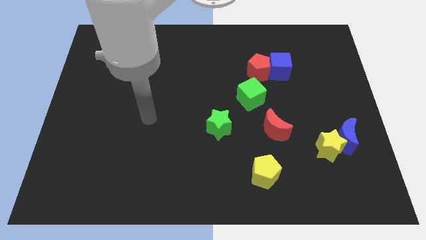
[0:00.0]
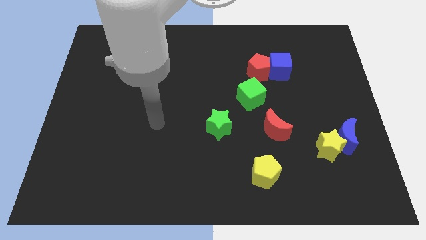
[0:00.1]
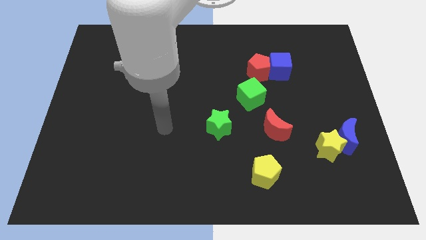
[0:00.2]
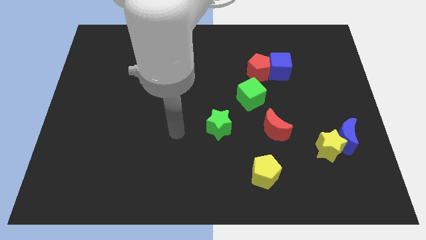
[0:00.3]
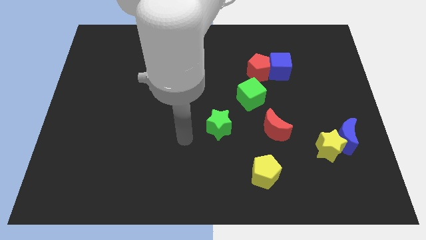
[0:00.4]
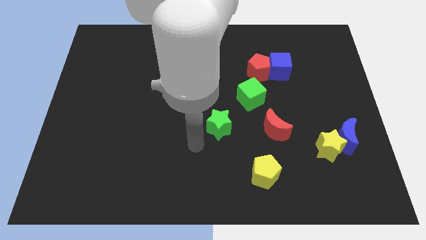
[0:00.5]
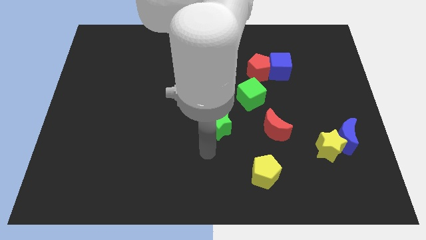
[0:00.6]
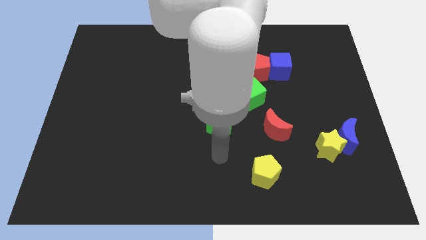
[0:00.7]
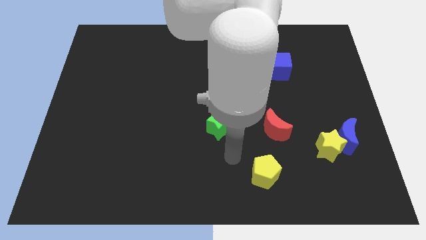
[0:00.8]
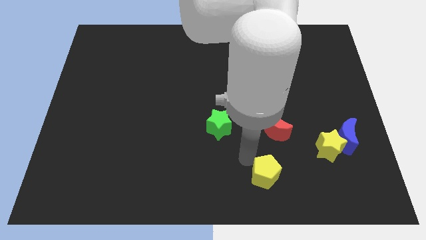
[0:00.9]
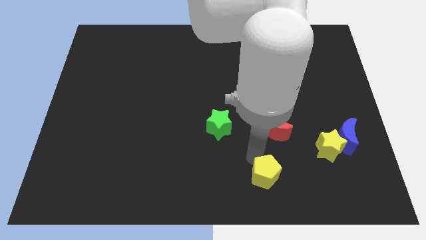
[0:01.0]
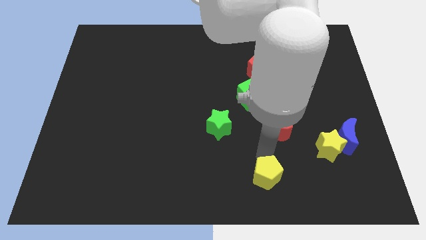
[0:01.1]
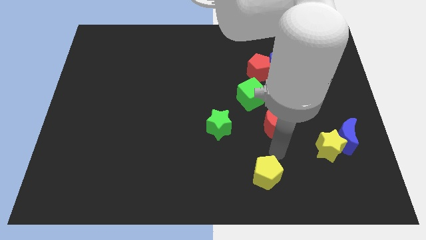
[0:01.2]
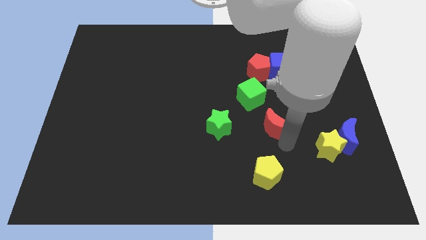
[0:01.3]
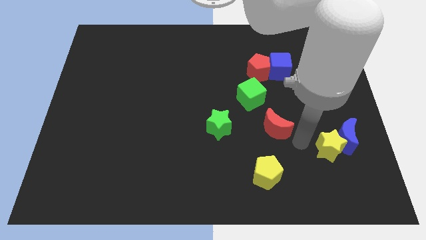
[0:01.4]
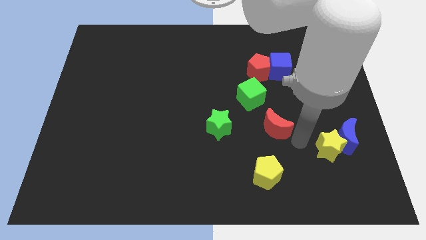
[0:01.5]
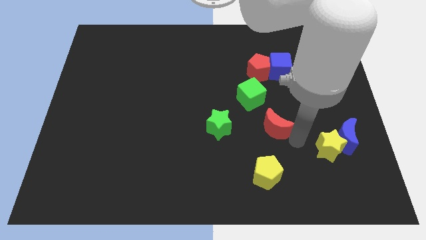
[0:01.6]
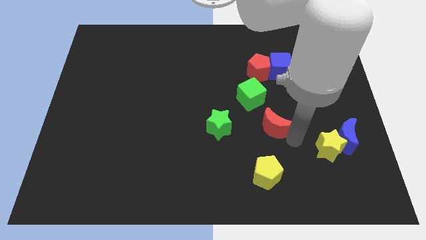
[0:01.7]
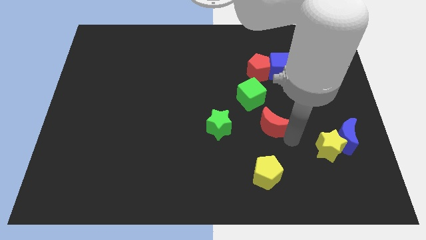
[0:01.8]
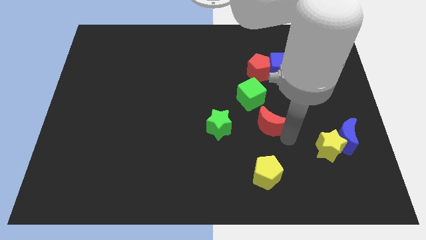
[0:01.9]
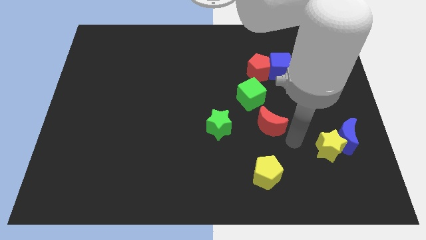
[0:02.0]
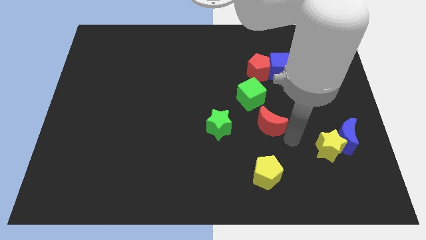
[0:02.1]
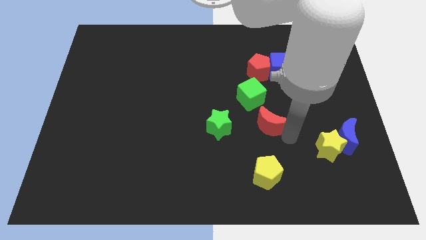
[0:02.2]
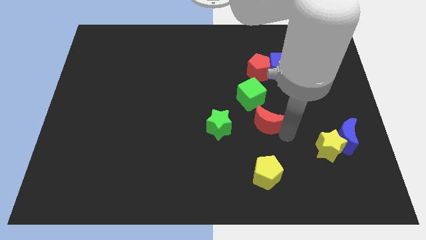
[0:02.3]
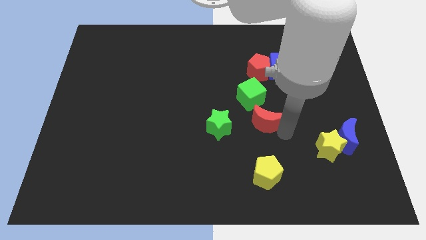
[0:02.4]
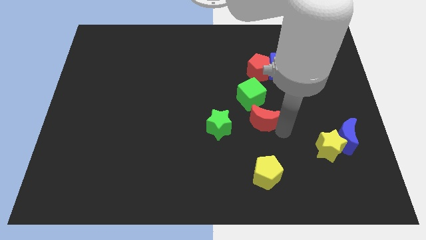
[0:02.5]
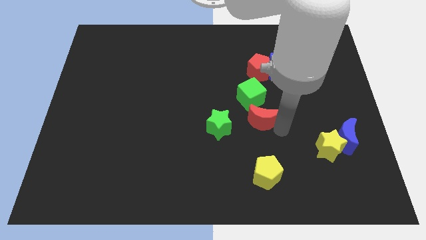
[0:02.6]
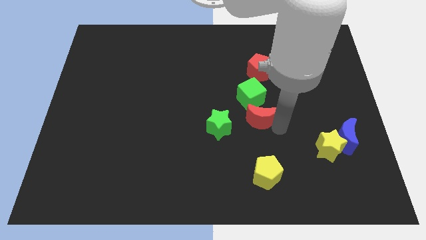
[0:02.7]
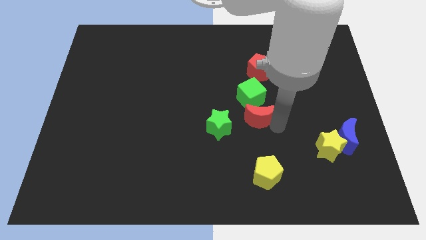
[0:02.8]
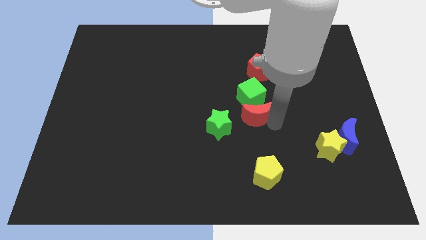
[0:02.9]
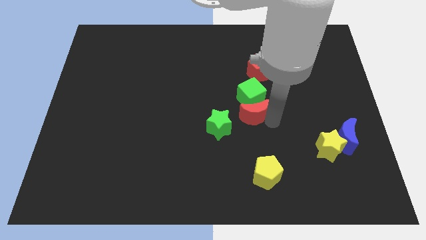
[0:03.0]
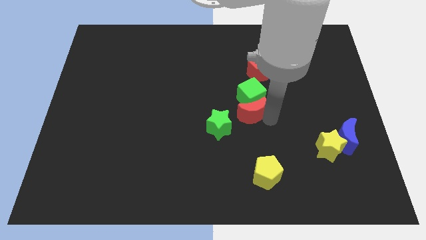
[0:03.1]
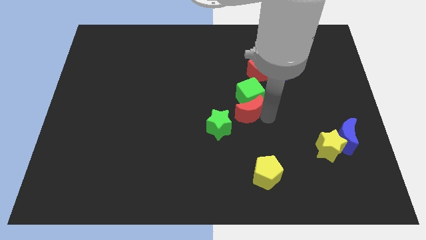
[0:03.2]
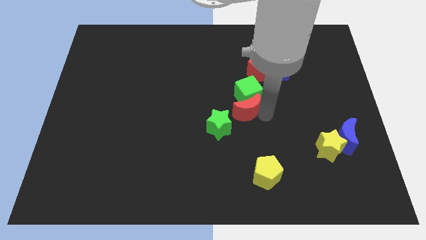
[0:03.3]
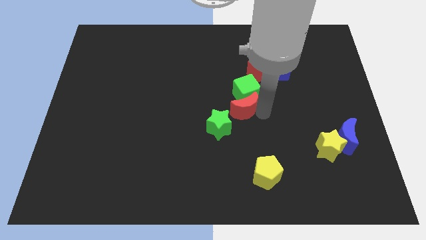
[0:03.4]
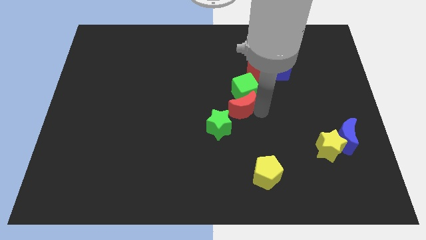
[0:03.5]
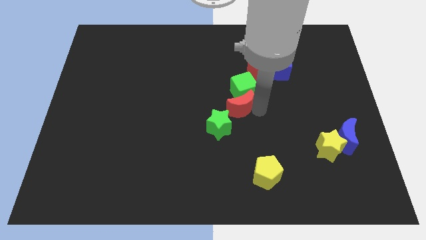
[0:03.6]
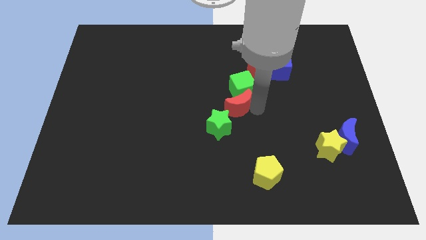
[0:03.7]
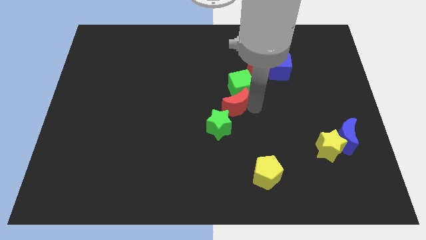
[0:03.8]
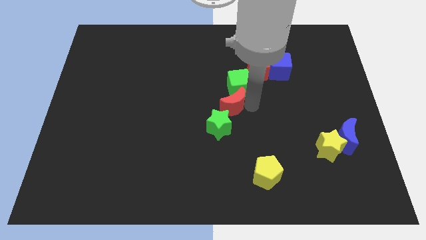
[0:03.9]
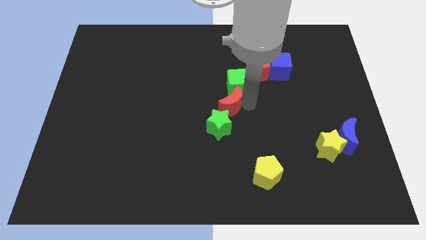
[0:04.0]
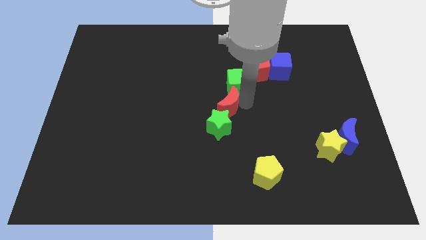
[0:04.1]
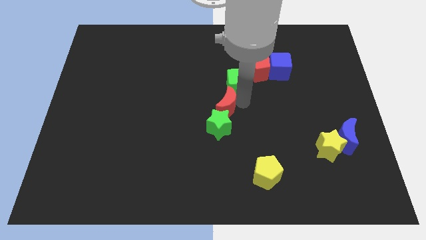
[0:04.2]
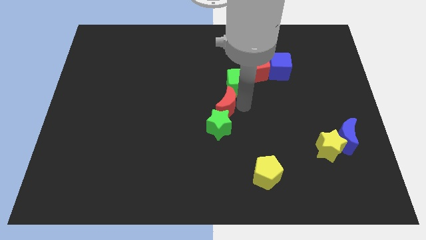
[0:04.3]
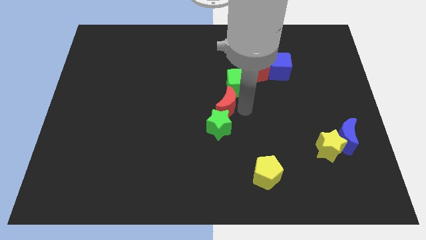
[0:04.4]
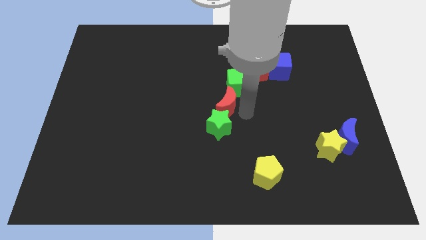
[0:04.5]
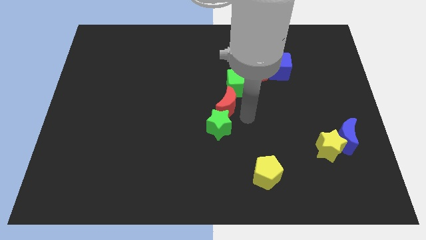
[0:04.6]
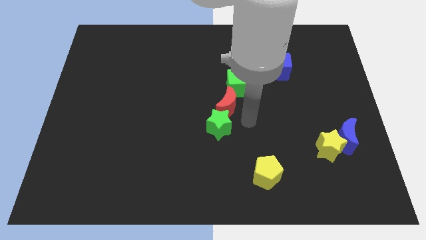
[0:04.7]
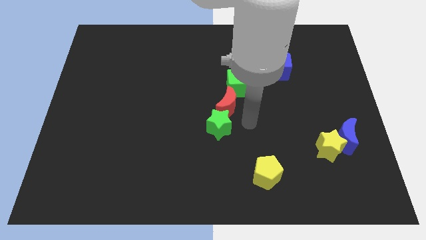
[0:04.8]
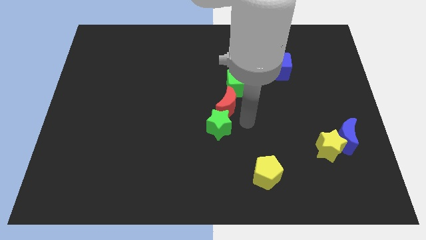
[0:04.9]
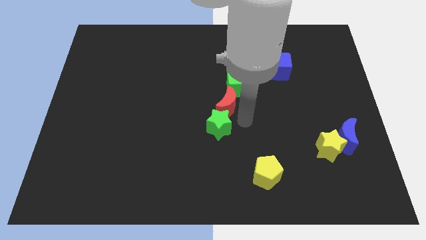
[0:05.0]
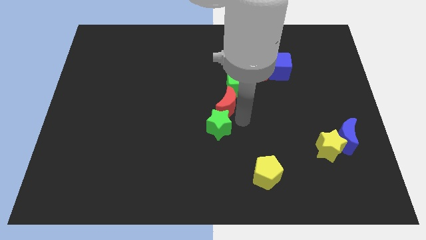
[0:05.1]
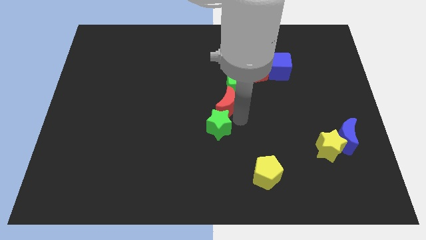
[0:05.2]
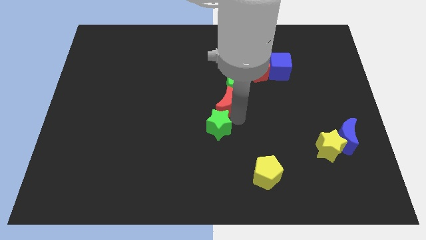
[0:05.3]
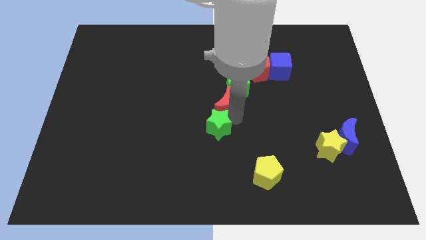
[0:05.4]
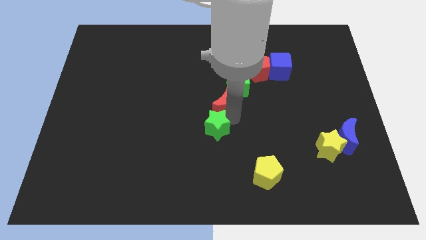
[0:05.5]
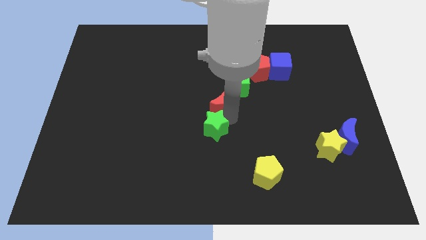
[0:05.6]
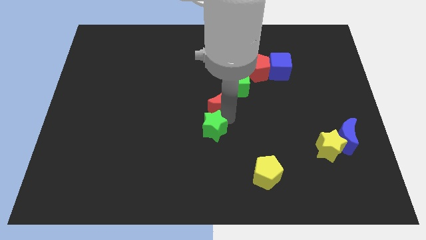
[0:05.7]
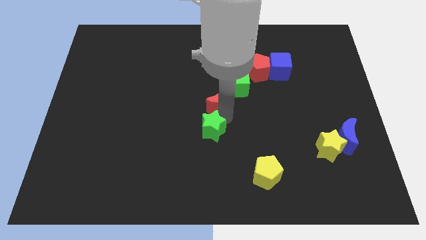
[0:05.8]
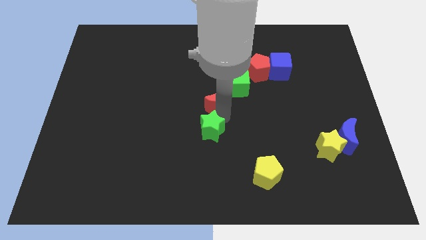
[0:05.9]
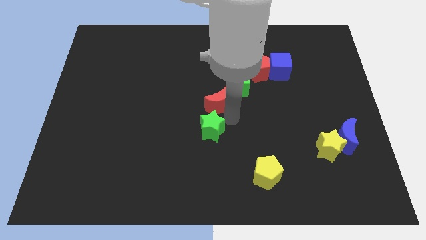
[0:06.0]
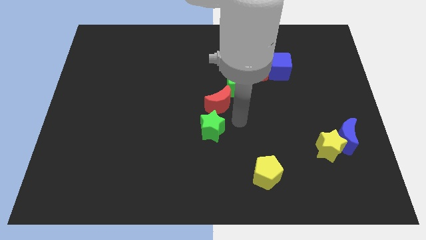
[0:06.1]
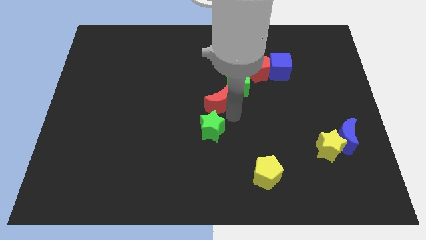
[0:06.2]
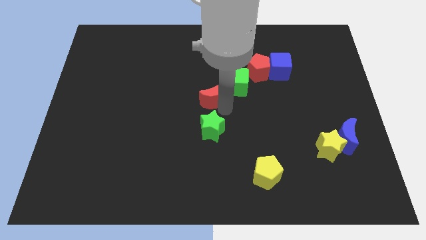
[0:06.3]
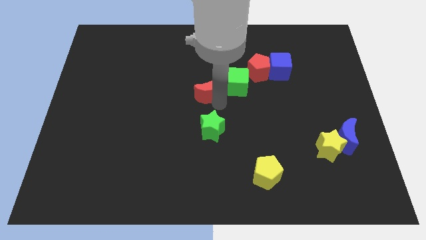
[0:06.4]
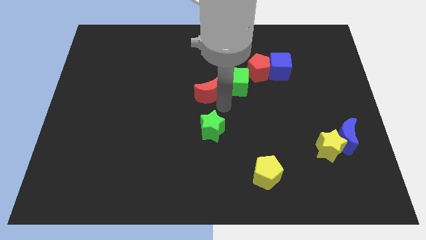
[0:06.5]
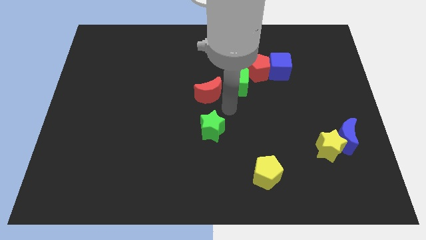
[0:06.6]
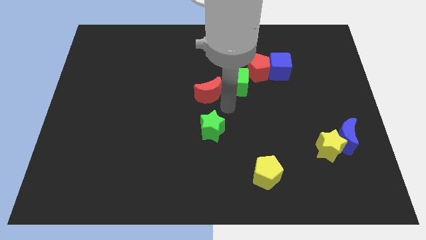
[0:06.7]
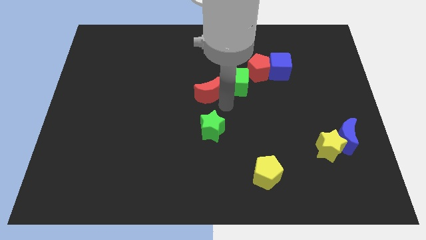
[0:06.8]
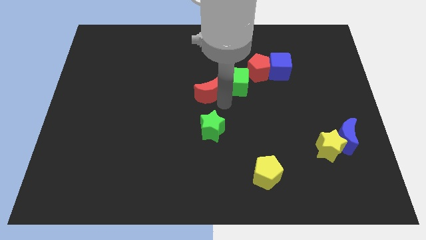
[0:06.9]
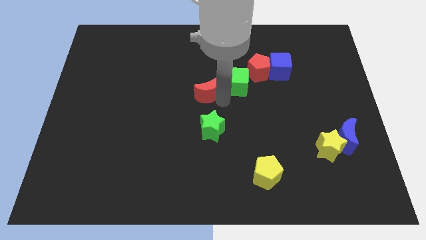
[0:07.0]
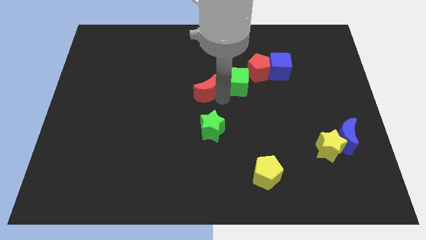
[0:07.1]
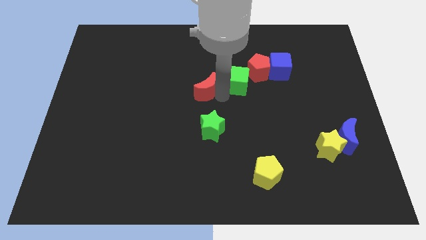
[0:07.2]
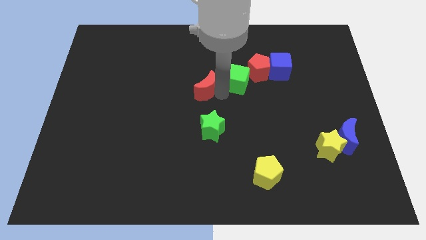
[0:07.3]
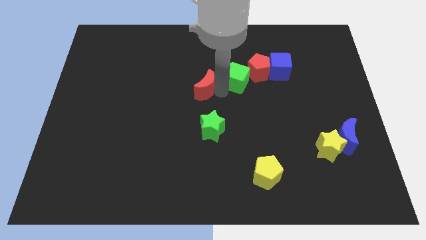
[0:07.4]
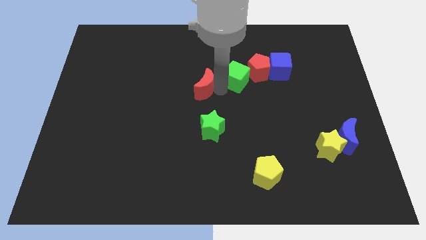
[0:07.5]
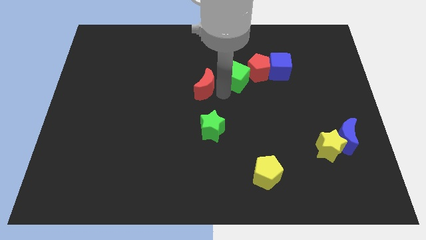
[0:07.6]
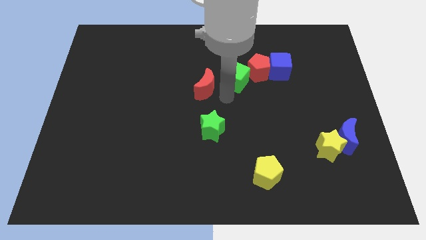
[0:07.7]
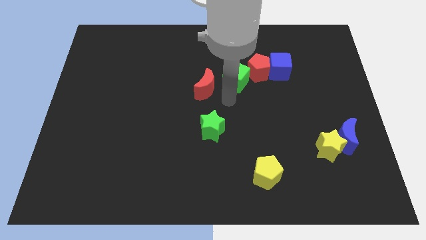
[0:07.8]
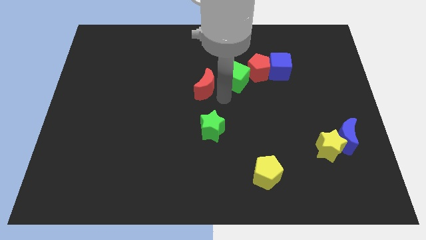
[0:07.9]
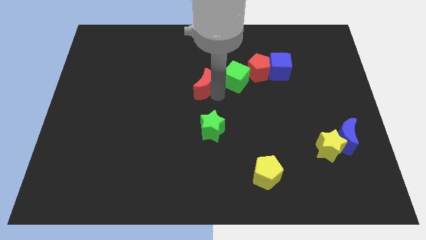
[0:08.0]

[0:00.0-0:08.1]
move the red moon up and to the left
